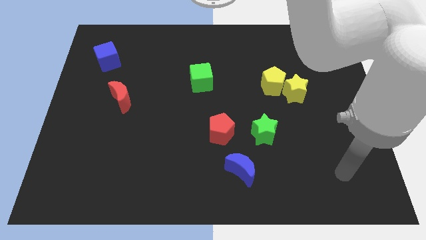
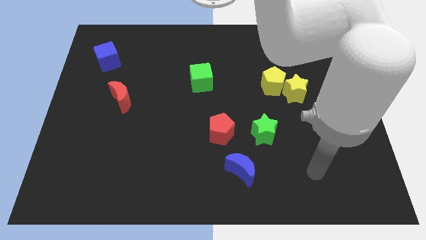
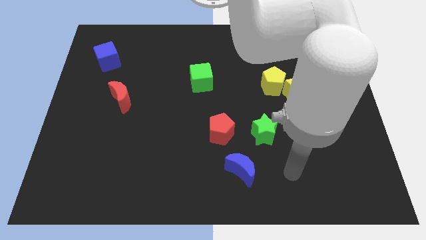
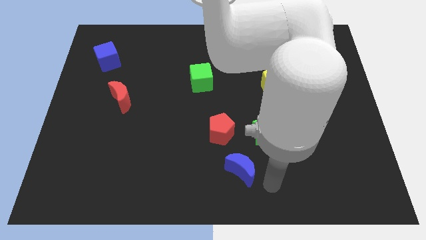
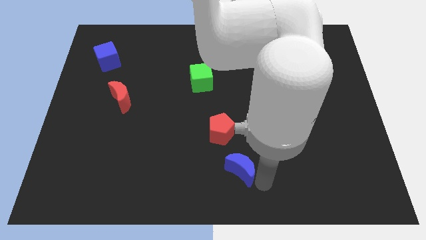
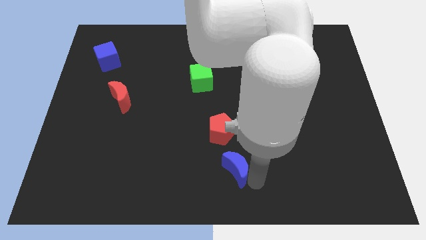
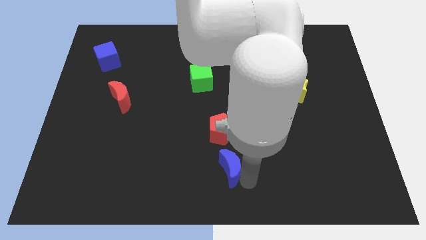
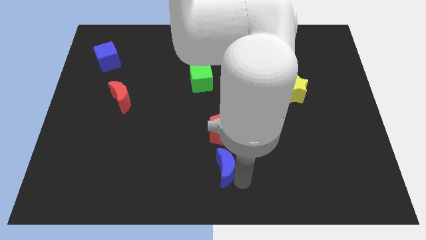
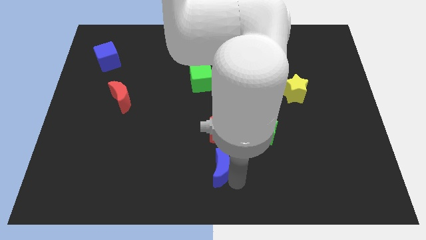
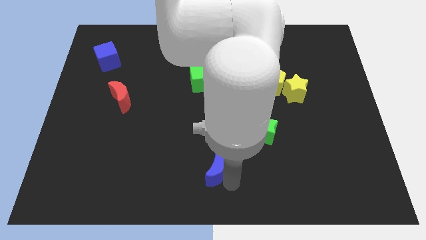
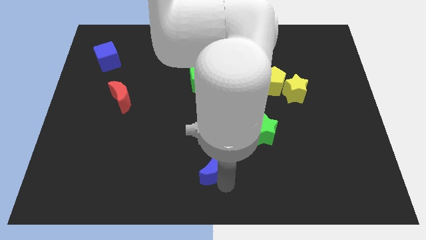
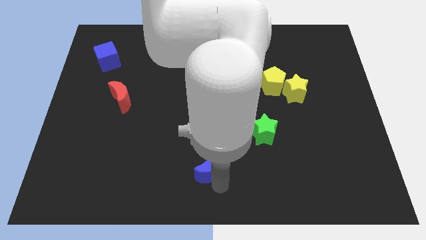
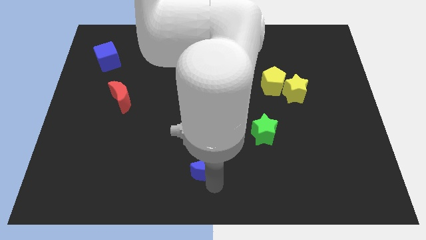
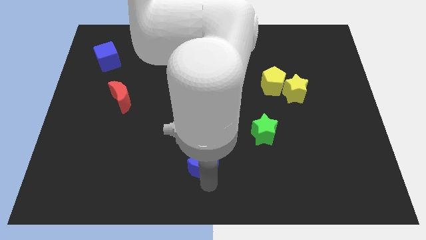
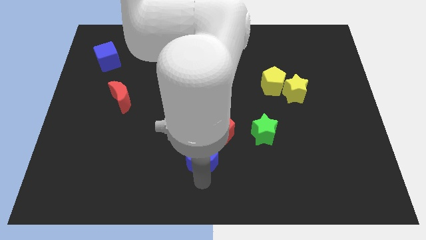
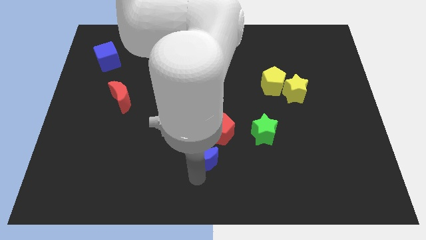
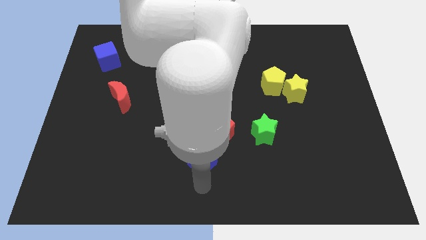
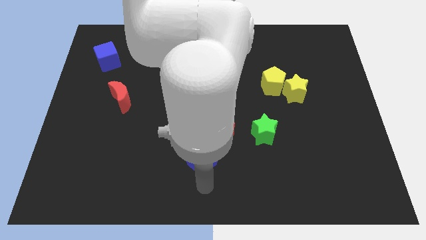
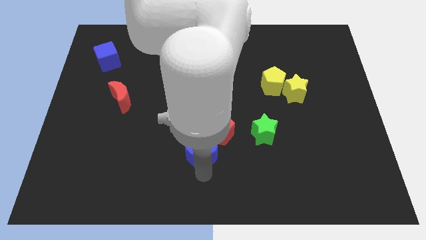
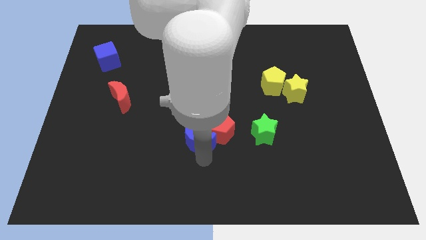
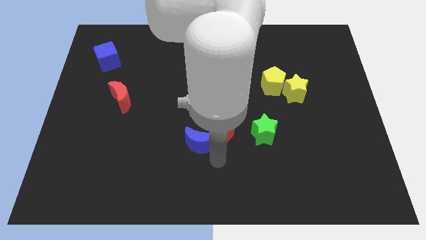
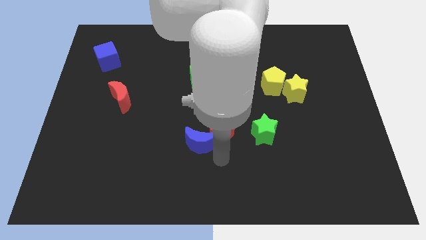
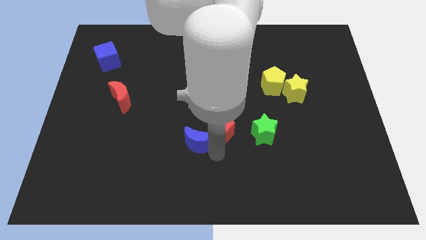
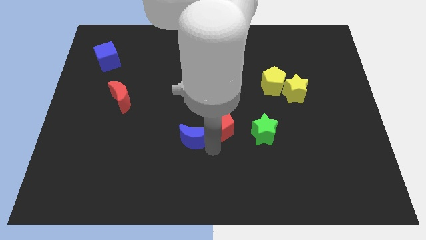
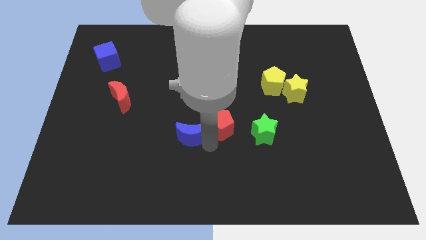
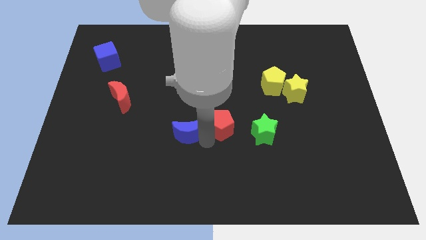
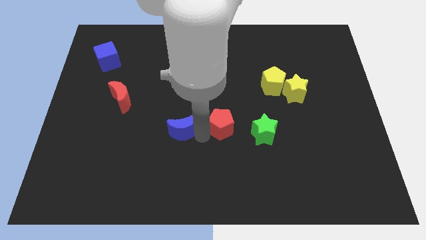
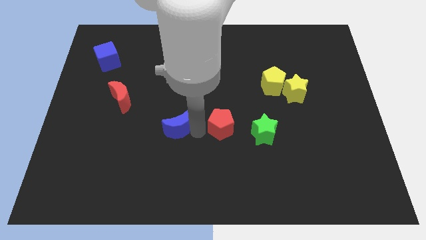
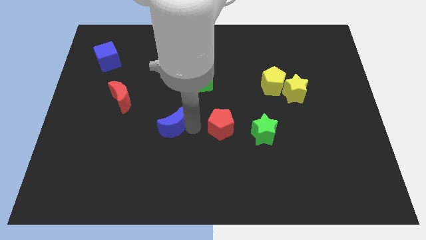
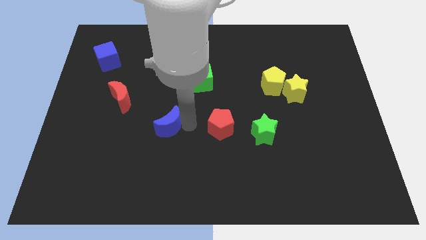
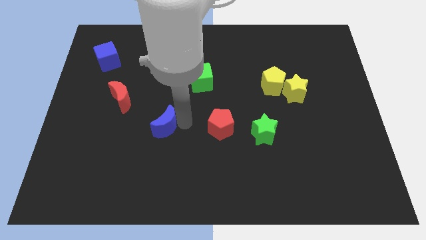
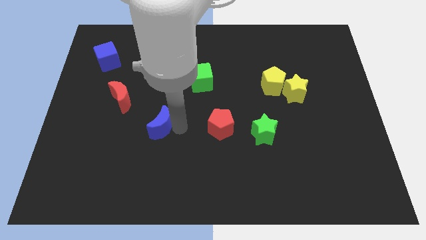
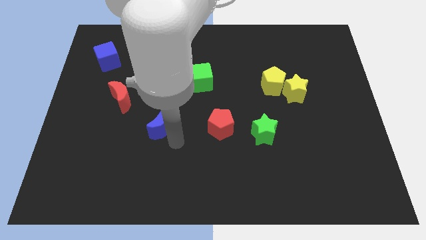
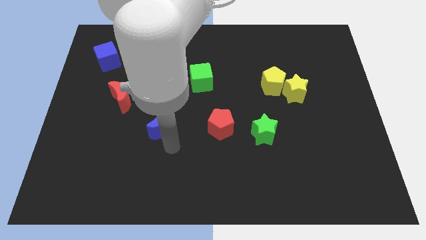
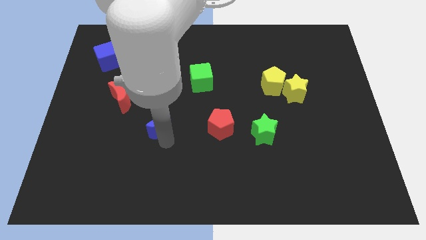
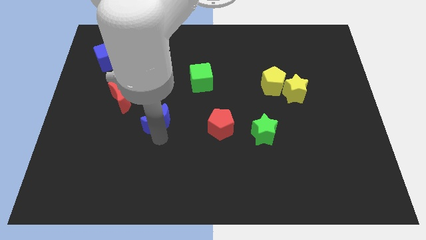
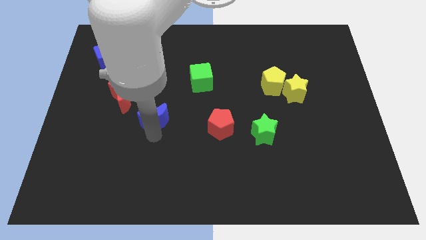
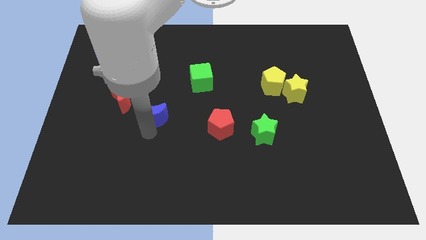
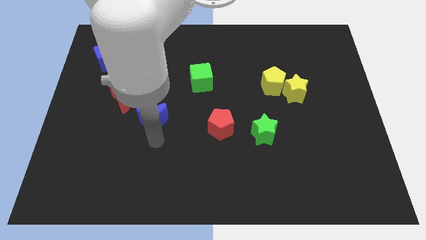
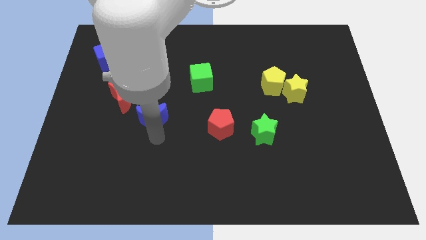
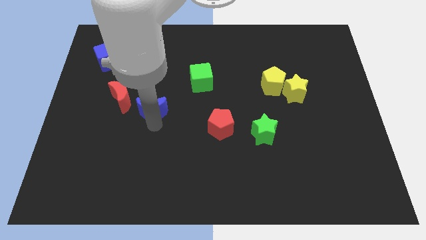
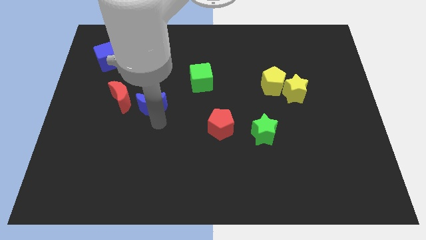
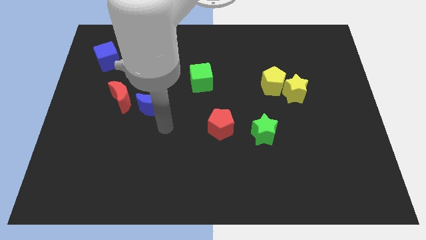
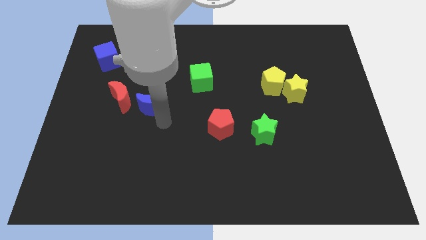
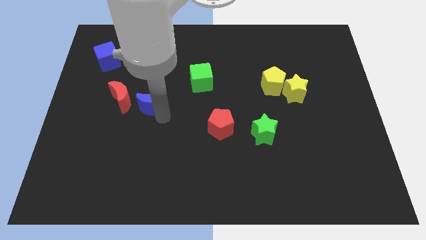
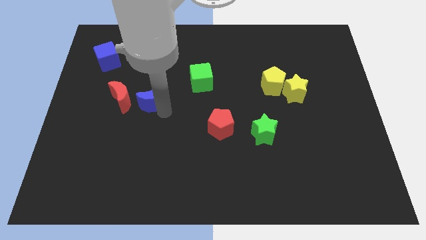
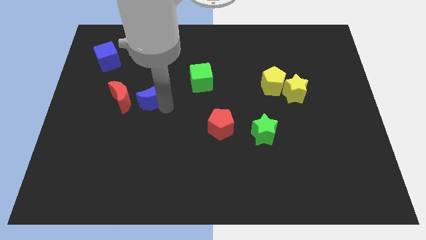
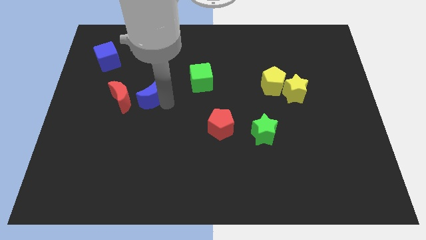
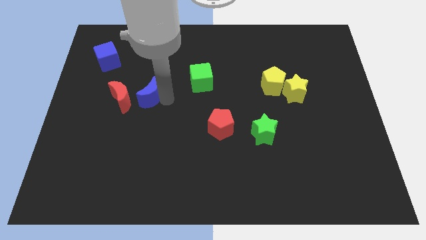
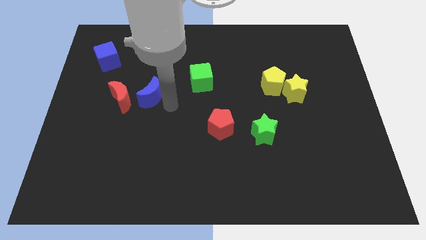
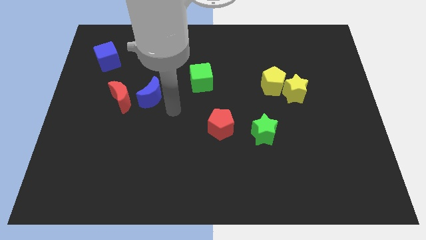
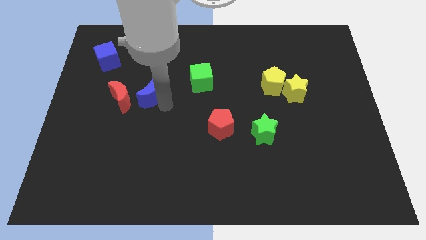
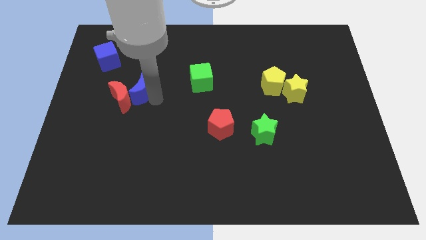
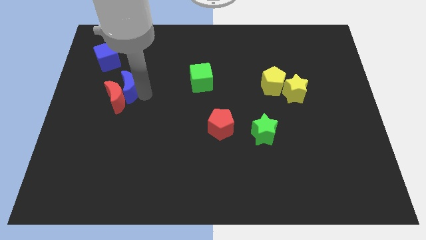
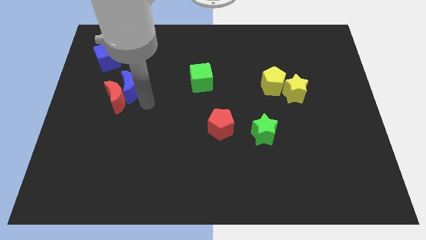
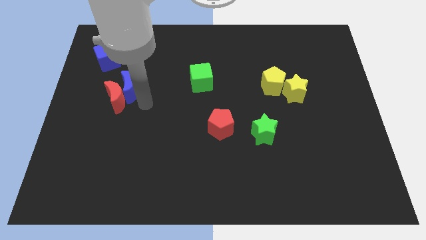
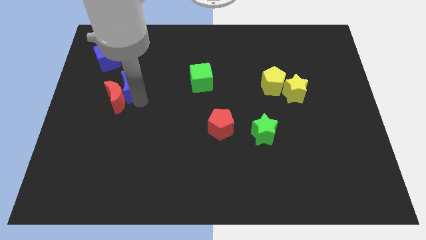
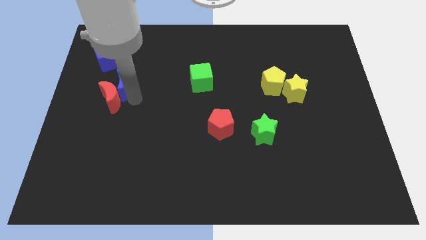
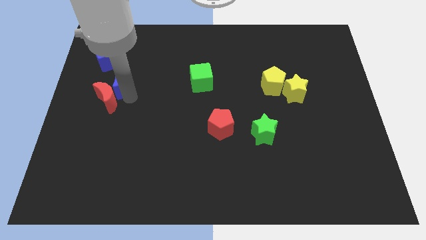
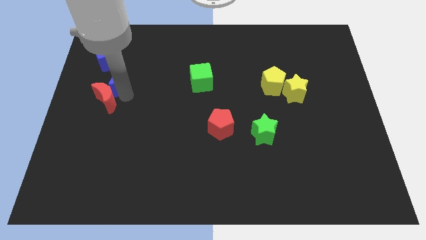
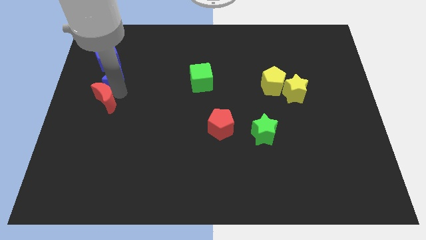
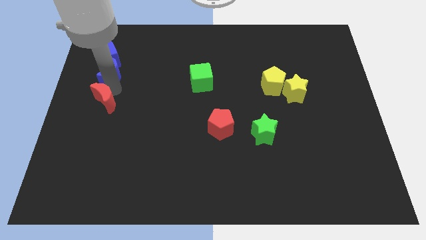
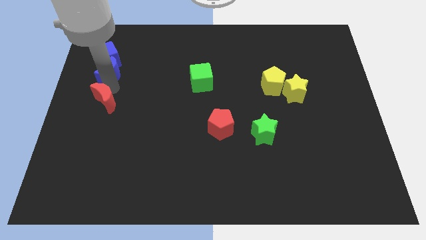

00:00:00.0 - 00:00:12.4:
move the blue moon towards the blue cube
